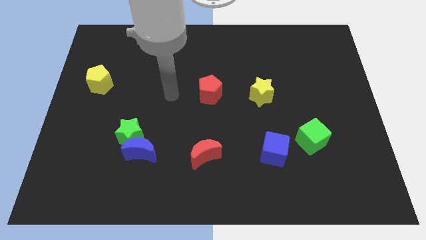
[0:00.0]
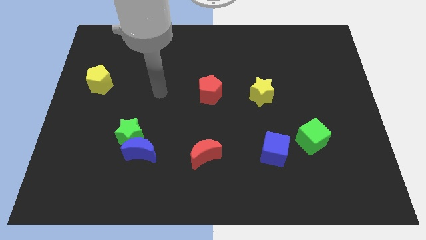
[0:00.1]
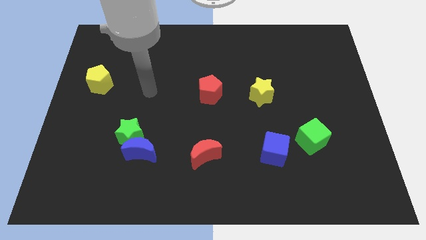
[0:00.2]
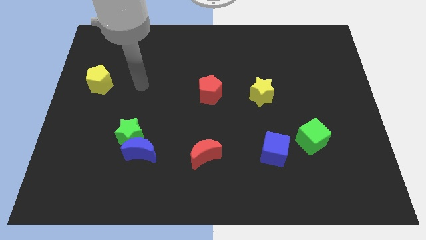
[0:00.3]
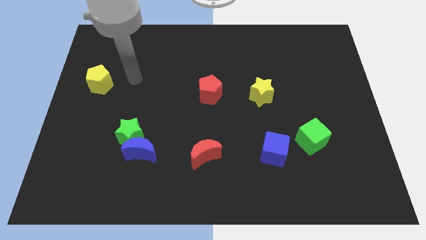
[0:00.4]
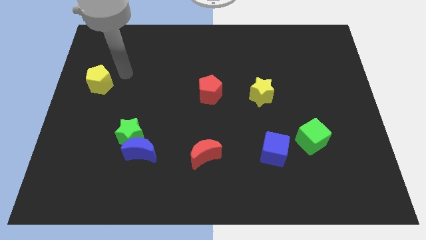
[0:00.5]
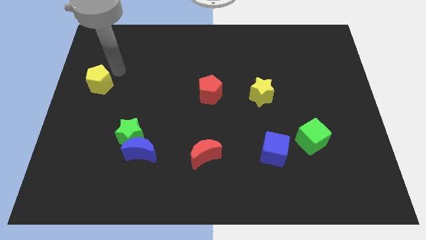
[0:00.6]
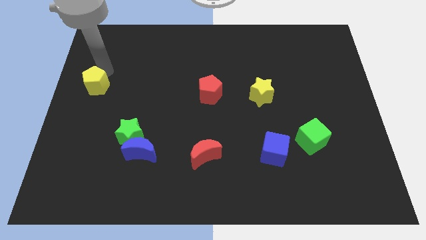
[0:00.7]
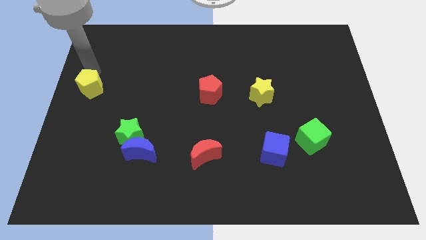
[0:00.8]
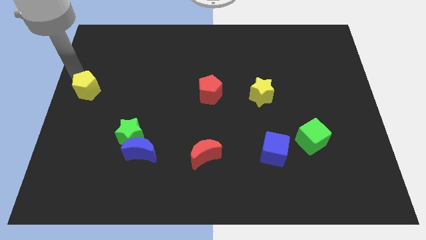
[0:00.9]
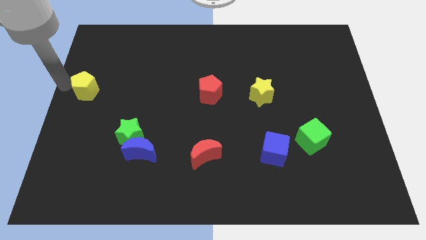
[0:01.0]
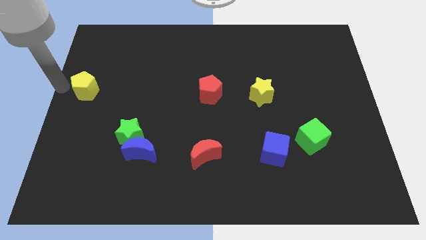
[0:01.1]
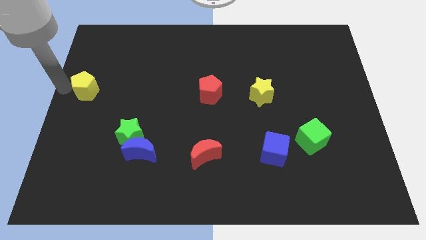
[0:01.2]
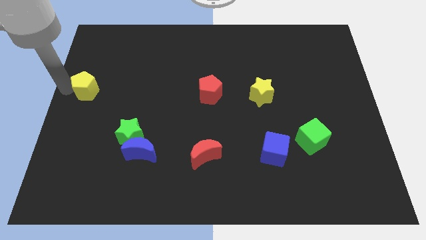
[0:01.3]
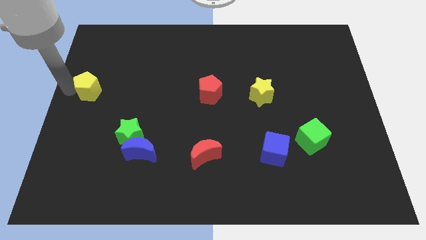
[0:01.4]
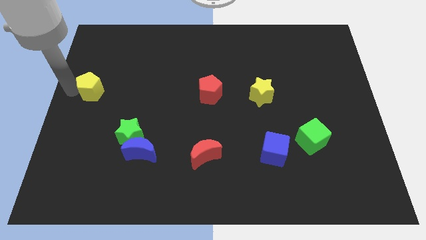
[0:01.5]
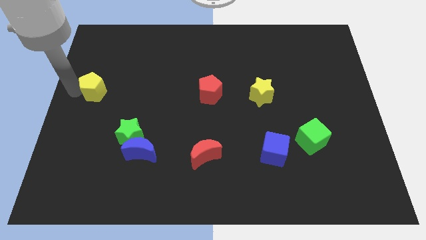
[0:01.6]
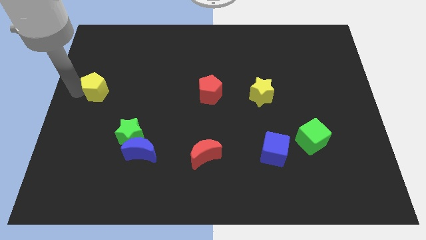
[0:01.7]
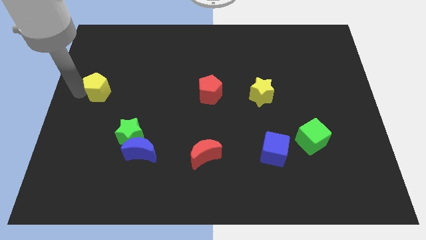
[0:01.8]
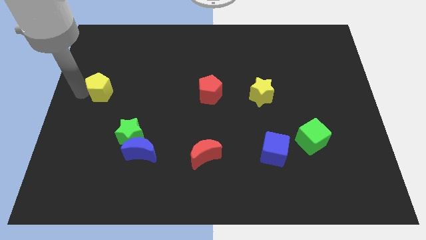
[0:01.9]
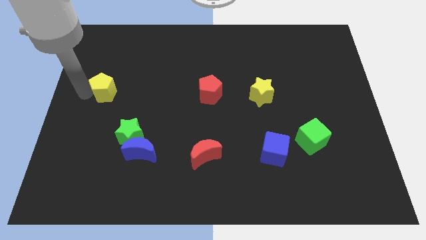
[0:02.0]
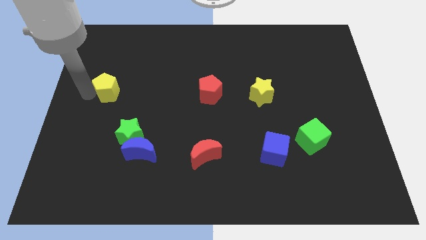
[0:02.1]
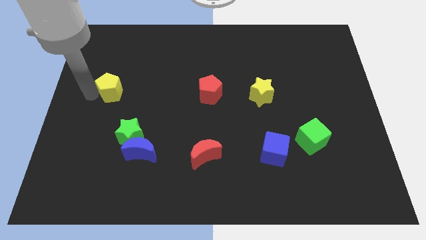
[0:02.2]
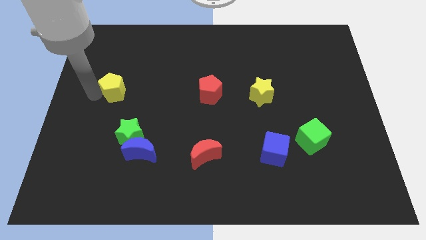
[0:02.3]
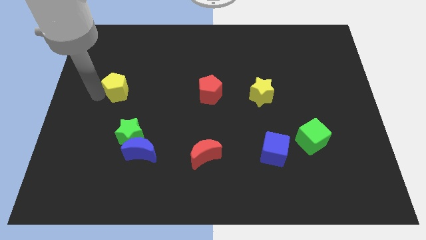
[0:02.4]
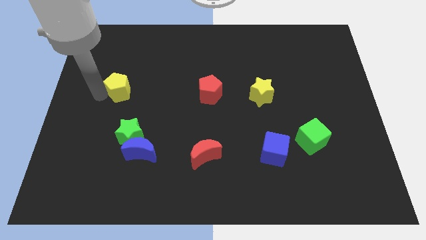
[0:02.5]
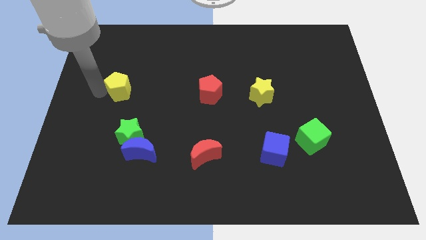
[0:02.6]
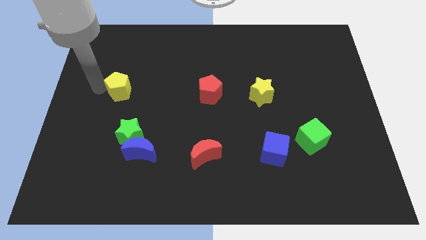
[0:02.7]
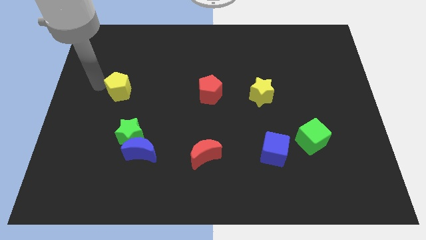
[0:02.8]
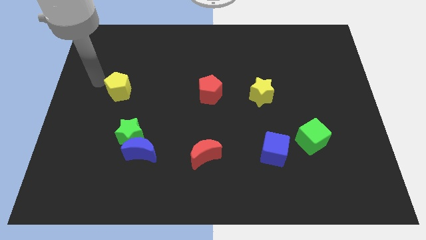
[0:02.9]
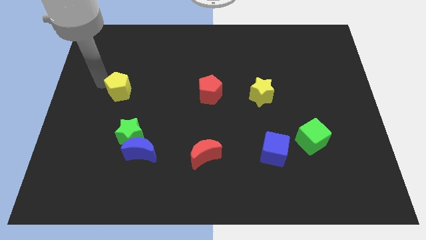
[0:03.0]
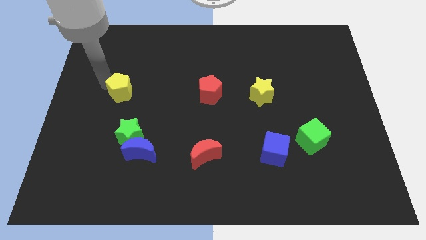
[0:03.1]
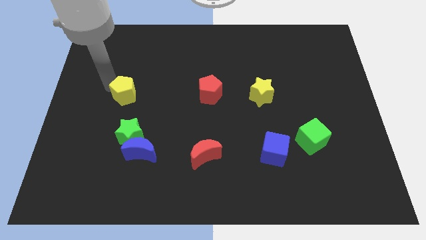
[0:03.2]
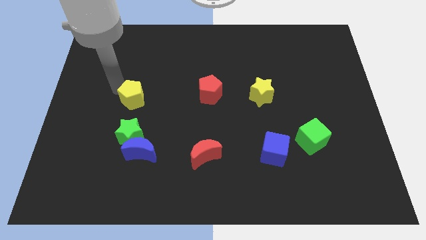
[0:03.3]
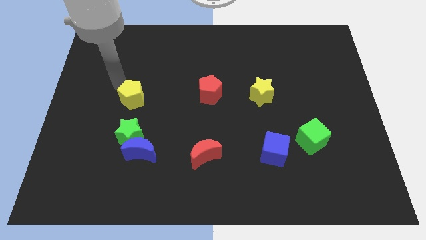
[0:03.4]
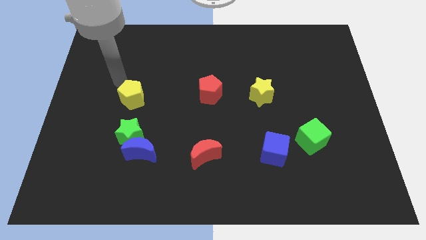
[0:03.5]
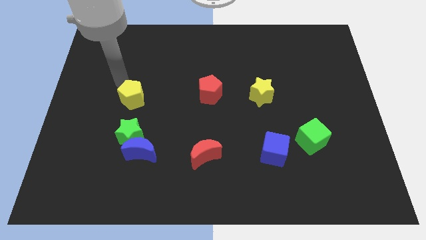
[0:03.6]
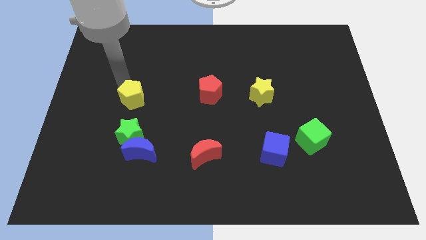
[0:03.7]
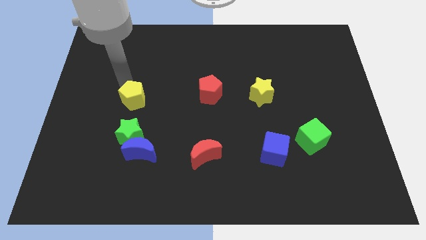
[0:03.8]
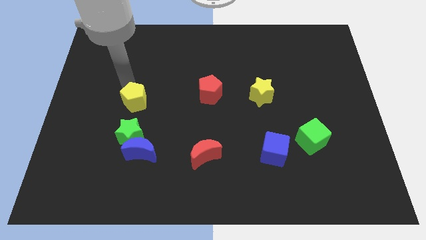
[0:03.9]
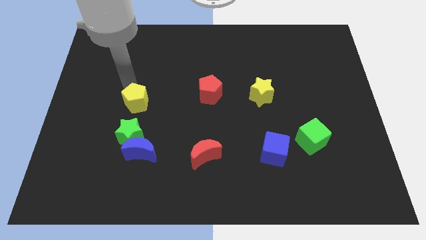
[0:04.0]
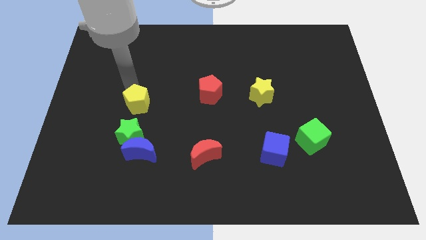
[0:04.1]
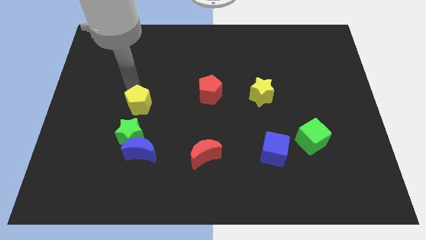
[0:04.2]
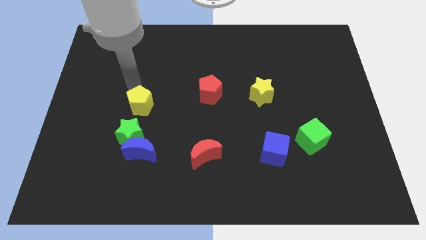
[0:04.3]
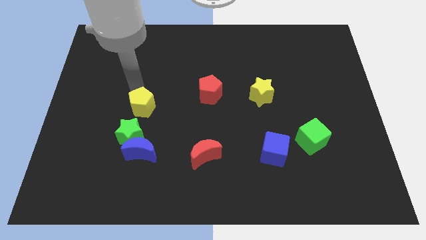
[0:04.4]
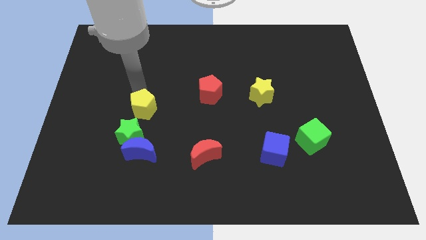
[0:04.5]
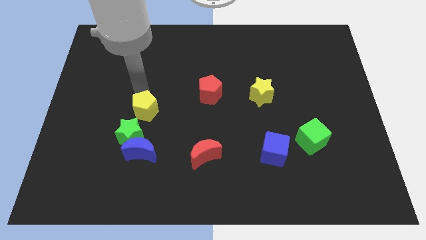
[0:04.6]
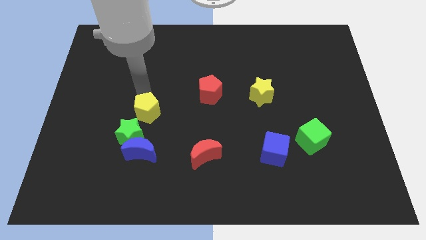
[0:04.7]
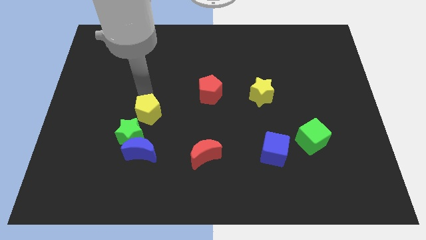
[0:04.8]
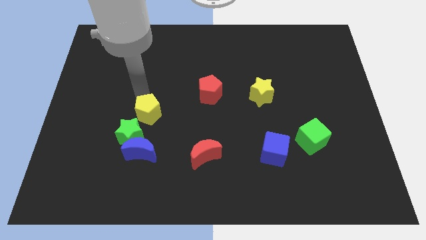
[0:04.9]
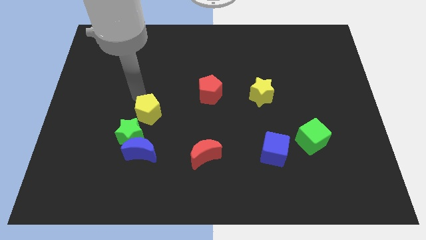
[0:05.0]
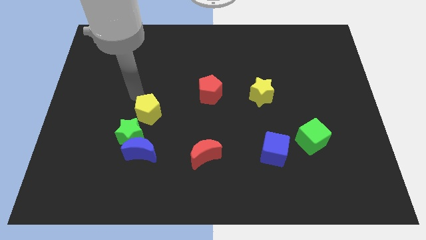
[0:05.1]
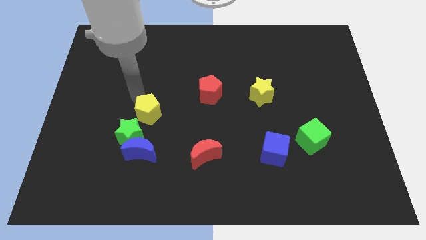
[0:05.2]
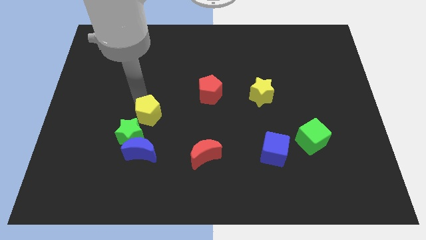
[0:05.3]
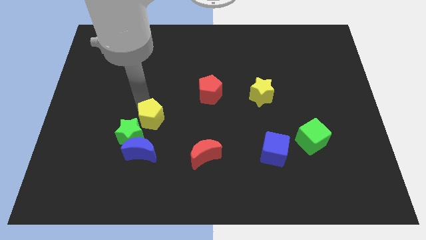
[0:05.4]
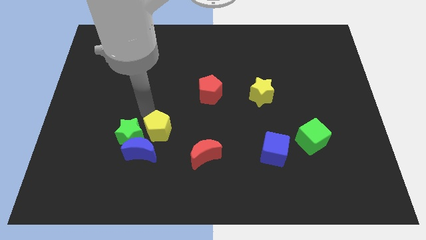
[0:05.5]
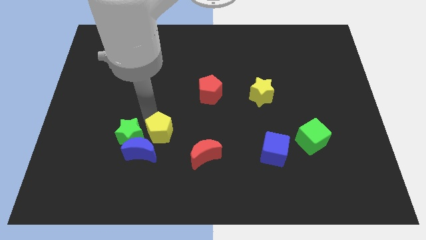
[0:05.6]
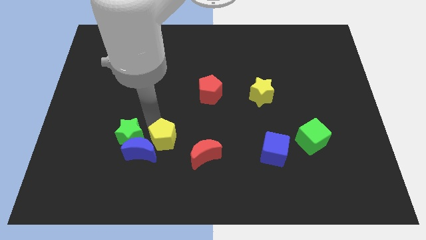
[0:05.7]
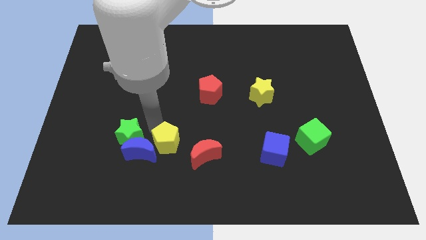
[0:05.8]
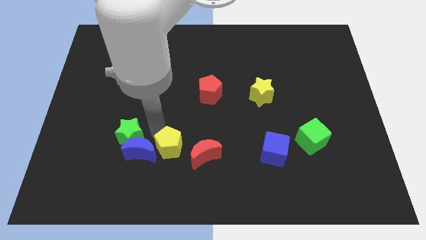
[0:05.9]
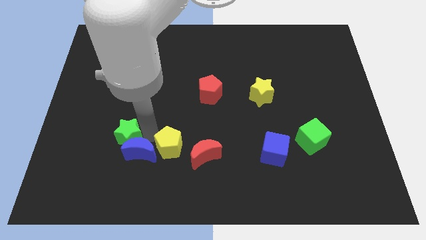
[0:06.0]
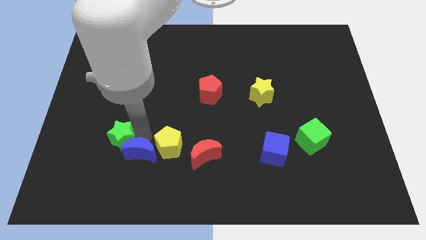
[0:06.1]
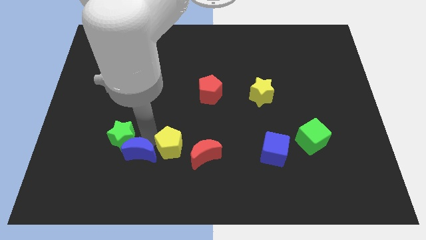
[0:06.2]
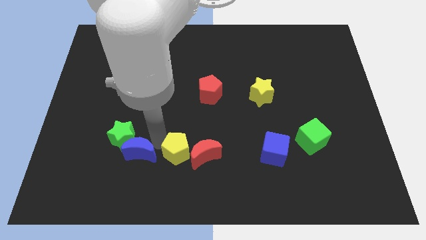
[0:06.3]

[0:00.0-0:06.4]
move the yellow pentagon to the red moon

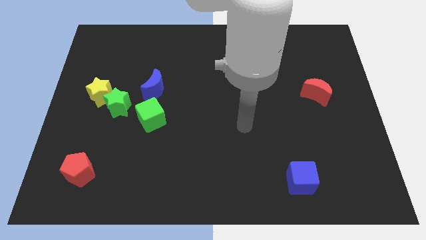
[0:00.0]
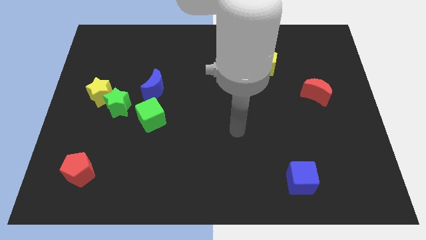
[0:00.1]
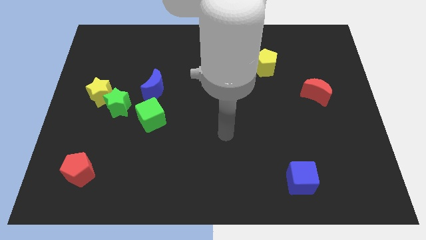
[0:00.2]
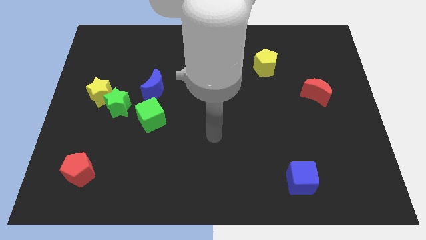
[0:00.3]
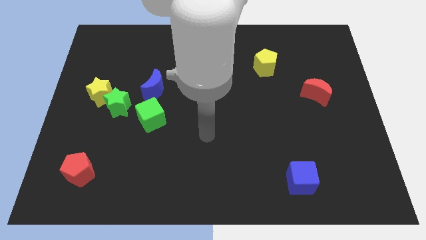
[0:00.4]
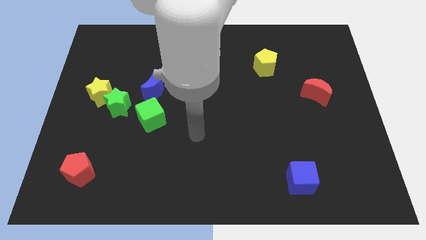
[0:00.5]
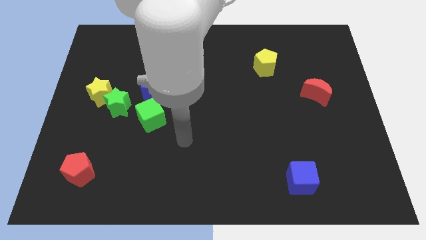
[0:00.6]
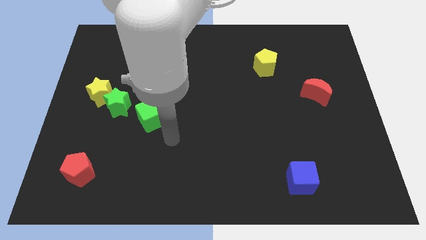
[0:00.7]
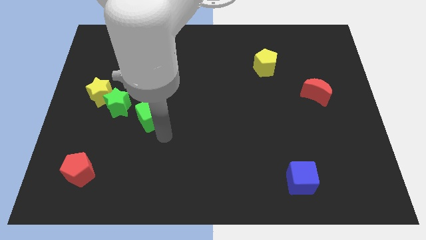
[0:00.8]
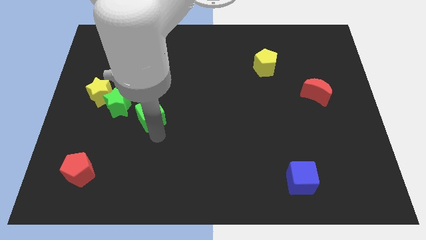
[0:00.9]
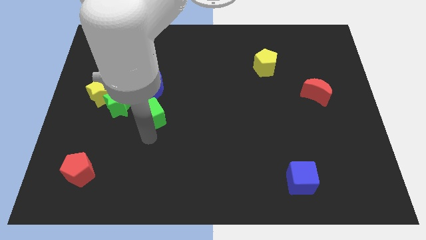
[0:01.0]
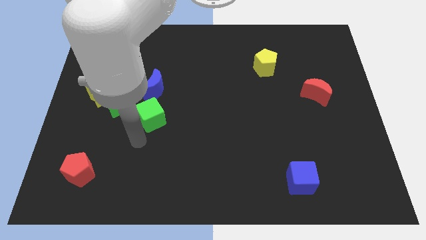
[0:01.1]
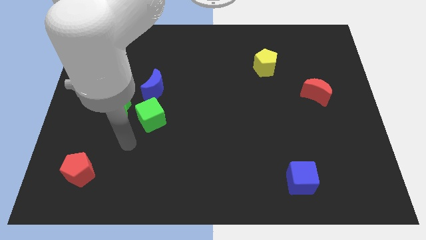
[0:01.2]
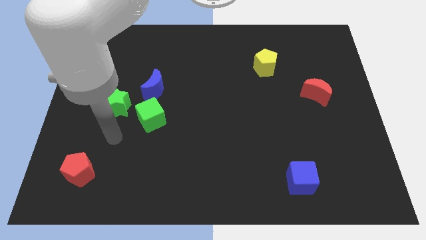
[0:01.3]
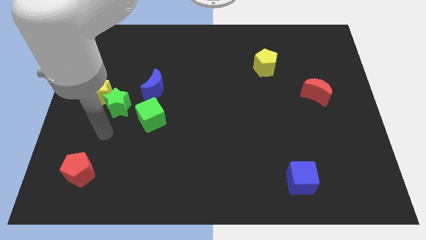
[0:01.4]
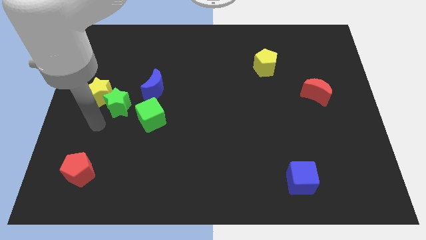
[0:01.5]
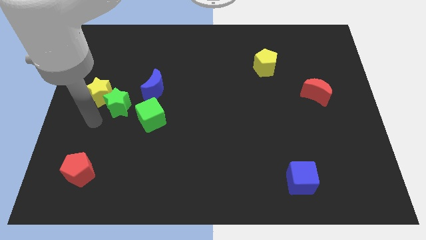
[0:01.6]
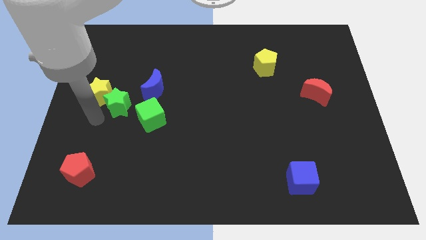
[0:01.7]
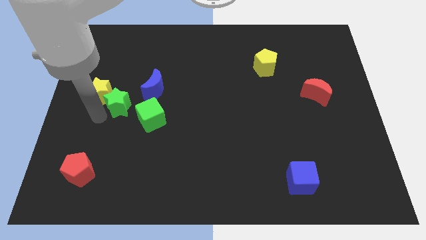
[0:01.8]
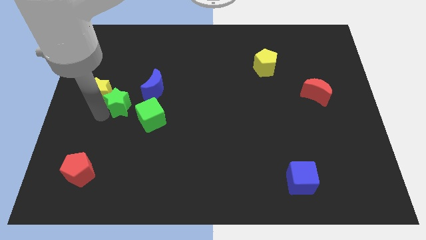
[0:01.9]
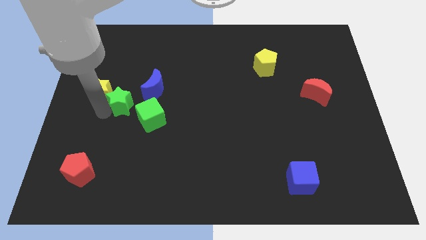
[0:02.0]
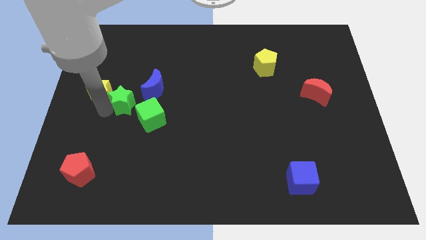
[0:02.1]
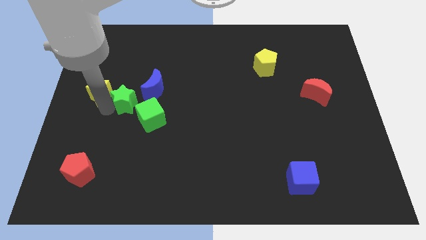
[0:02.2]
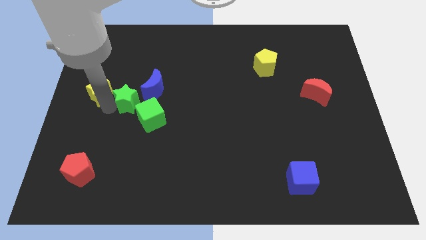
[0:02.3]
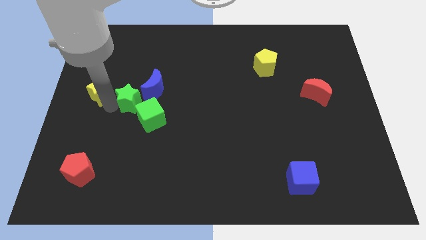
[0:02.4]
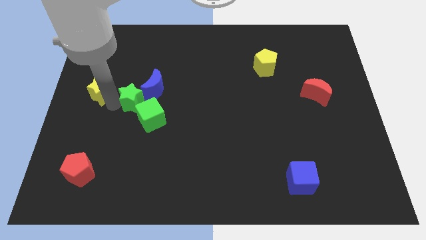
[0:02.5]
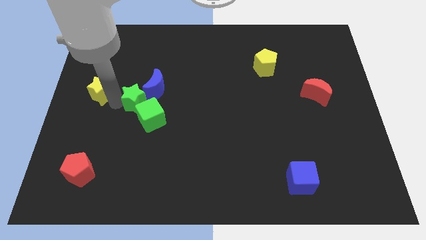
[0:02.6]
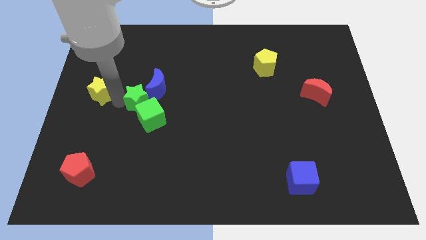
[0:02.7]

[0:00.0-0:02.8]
slide the green star next to the blue moon
